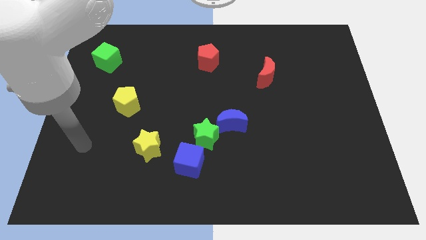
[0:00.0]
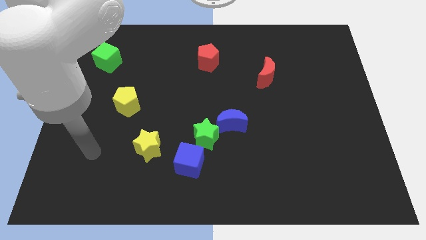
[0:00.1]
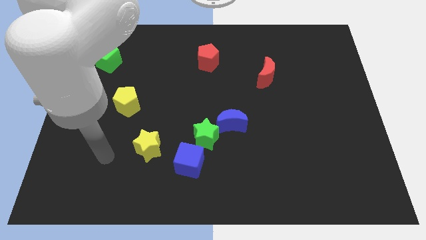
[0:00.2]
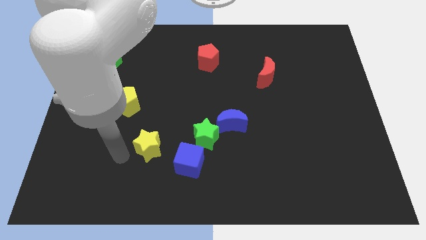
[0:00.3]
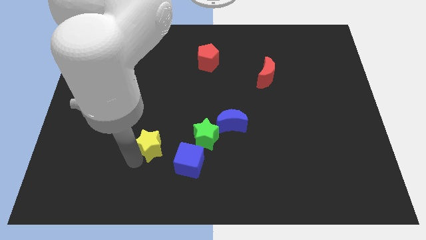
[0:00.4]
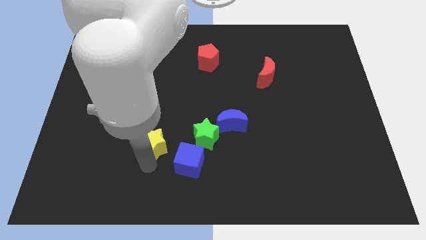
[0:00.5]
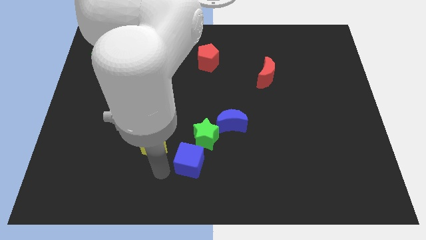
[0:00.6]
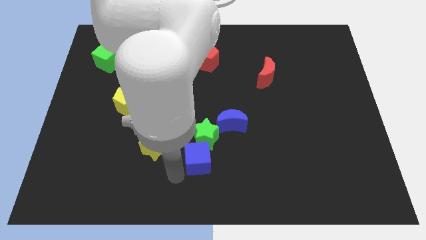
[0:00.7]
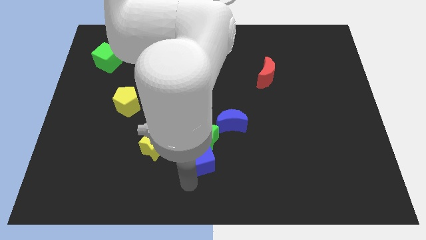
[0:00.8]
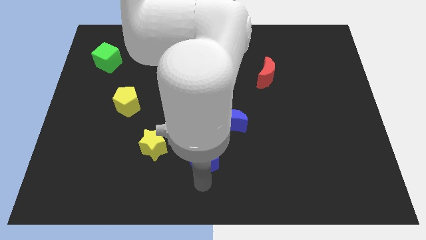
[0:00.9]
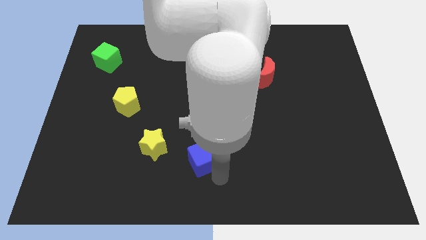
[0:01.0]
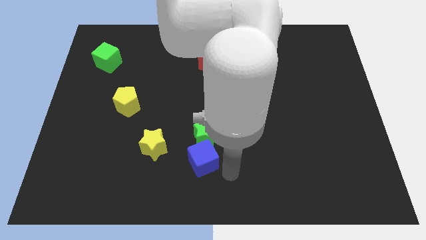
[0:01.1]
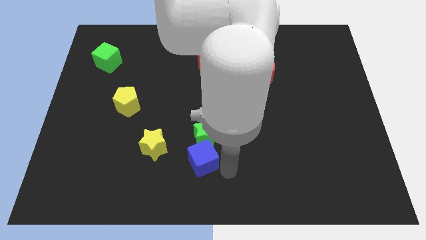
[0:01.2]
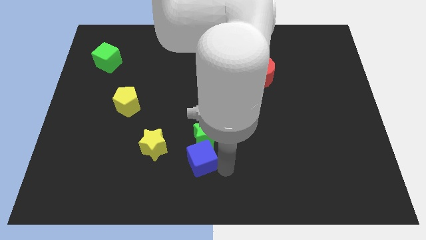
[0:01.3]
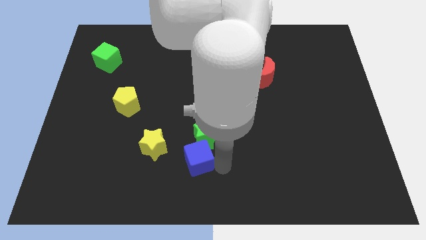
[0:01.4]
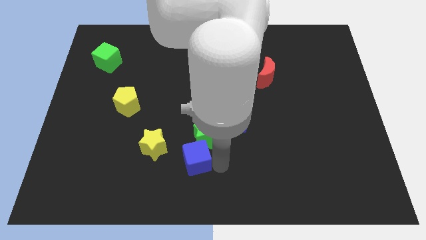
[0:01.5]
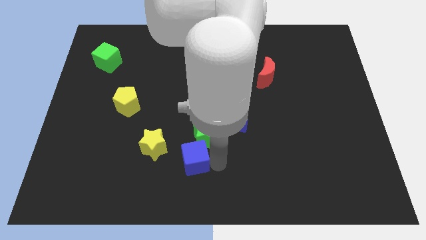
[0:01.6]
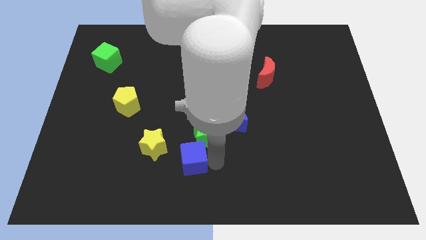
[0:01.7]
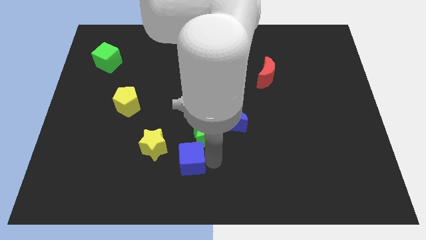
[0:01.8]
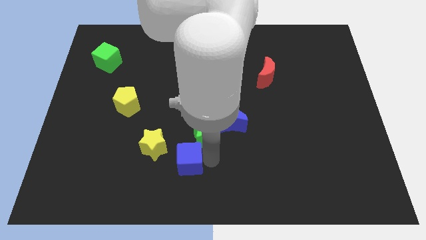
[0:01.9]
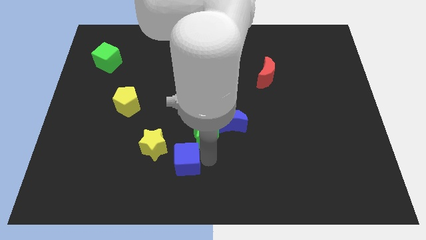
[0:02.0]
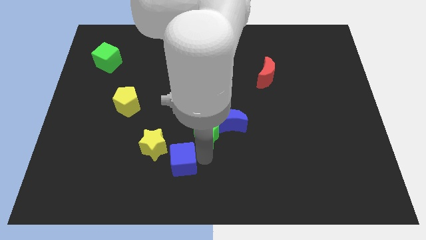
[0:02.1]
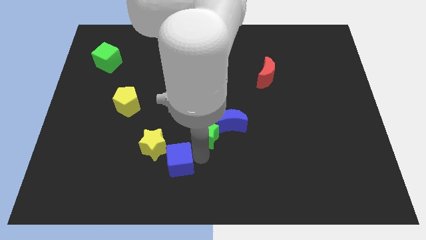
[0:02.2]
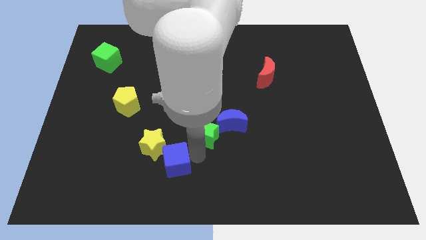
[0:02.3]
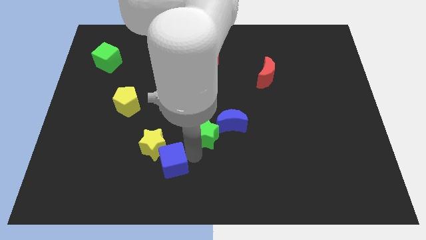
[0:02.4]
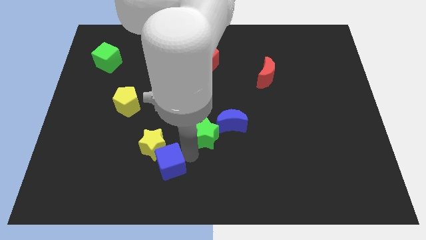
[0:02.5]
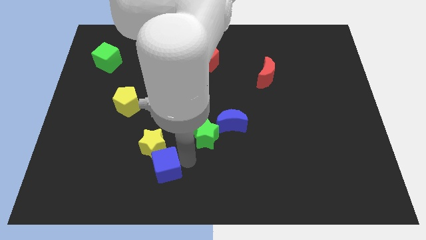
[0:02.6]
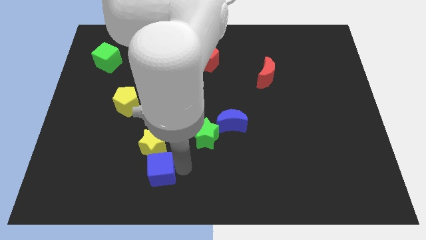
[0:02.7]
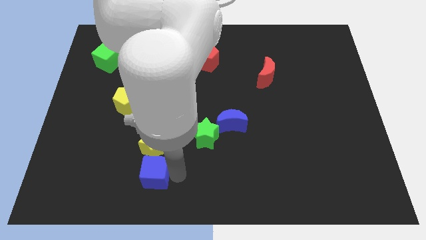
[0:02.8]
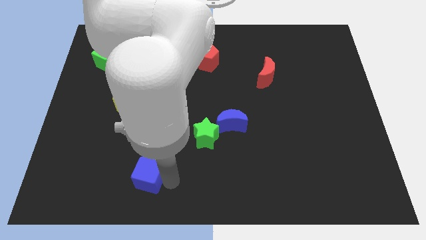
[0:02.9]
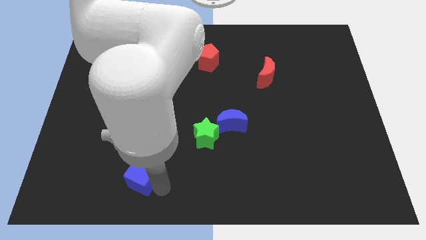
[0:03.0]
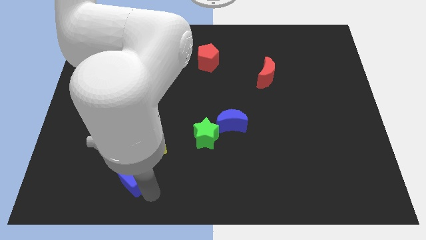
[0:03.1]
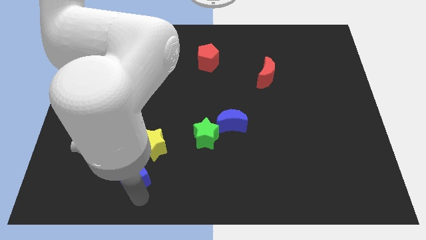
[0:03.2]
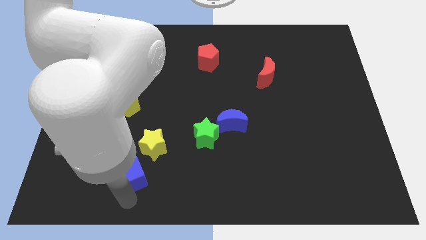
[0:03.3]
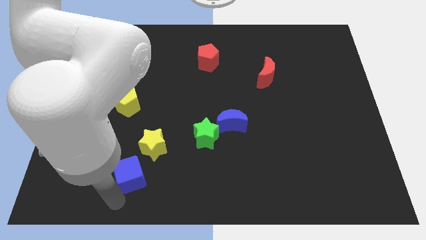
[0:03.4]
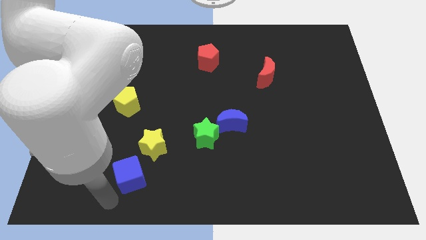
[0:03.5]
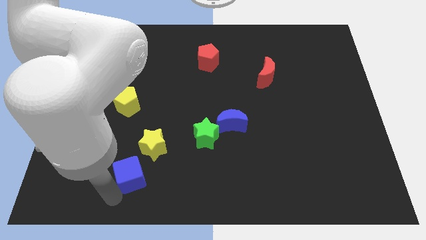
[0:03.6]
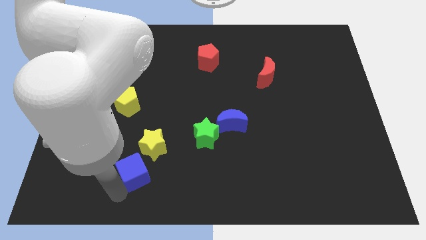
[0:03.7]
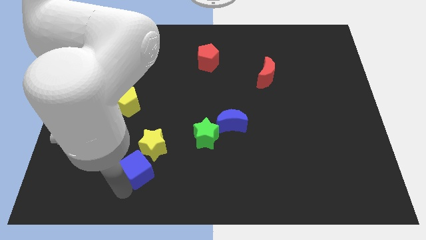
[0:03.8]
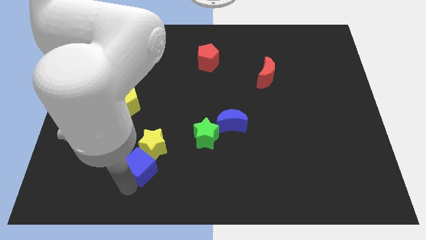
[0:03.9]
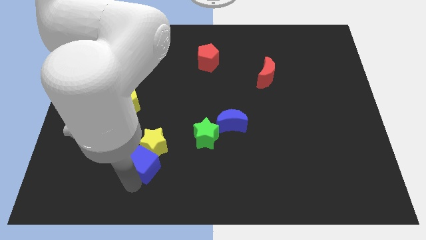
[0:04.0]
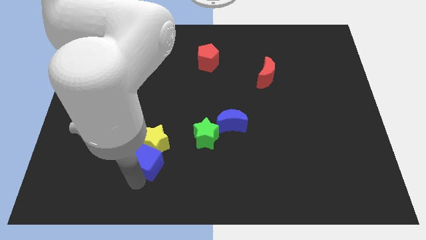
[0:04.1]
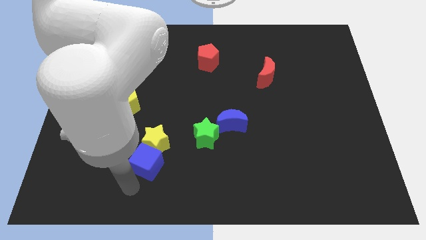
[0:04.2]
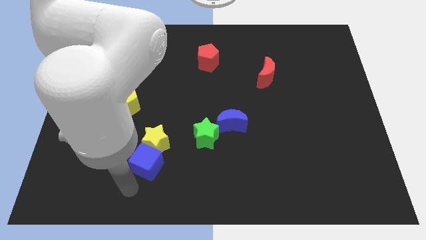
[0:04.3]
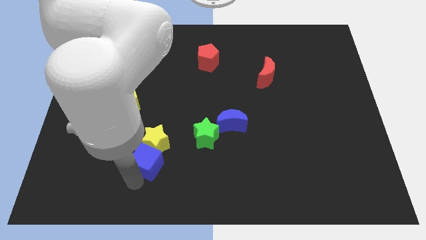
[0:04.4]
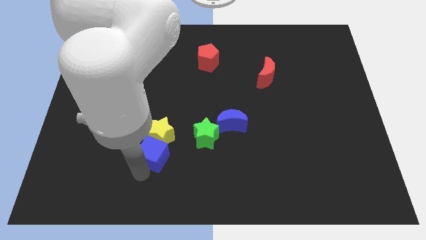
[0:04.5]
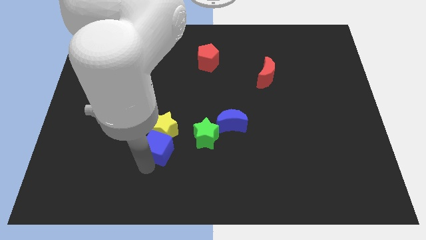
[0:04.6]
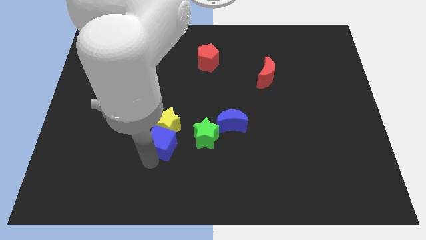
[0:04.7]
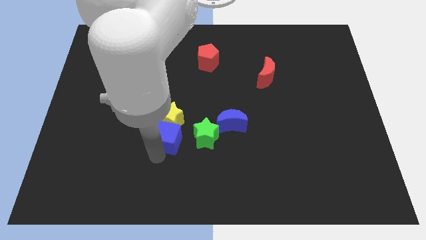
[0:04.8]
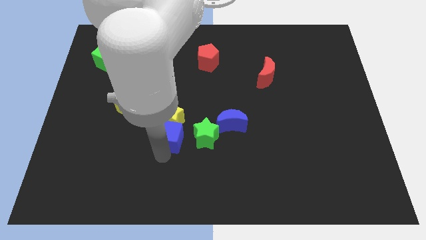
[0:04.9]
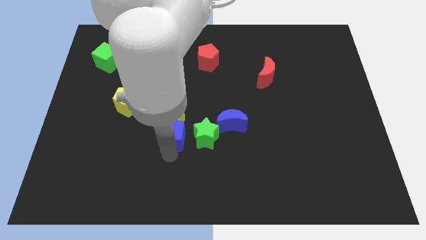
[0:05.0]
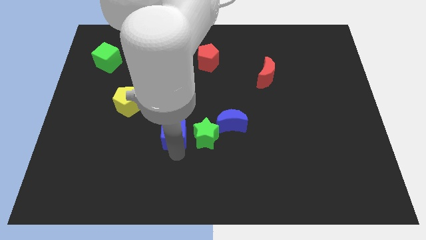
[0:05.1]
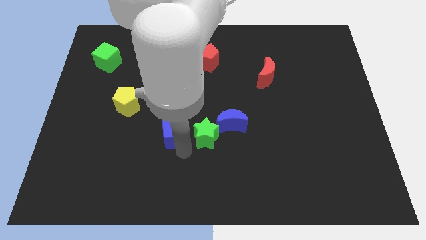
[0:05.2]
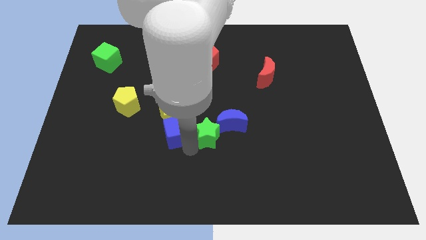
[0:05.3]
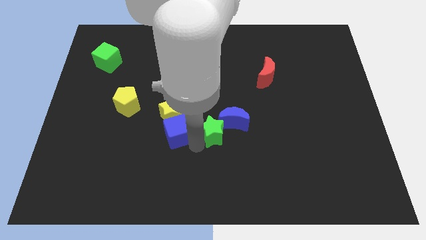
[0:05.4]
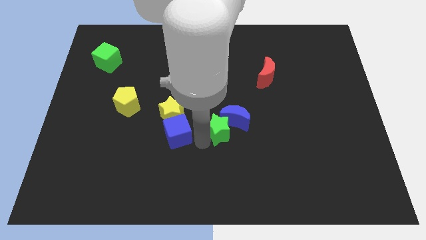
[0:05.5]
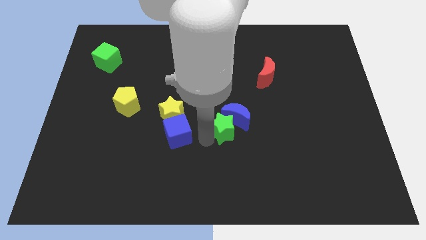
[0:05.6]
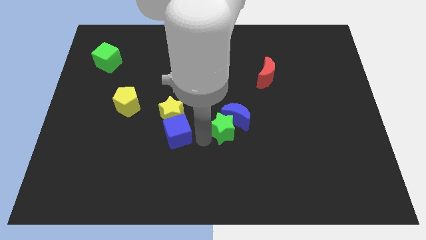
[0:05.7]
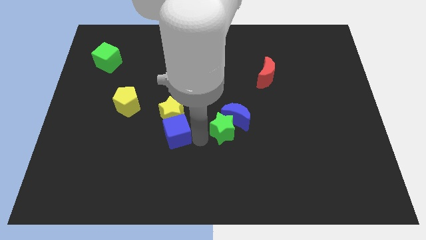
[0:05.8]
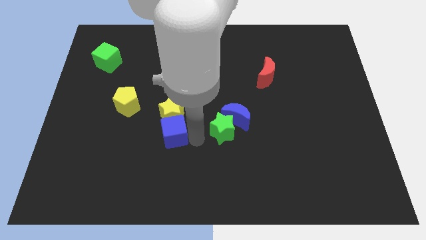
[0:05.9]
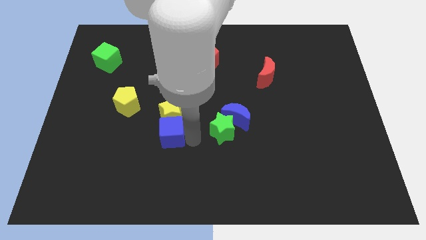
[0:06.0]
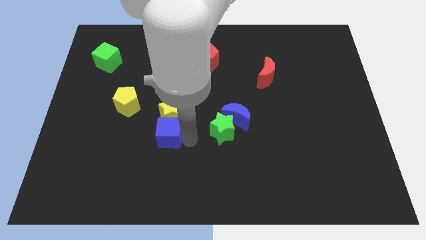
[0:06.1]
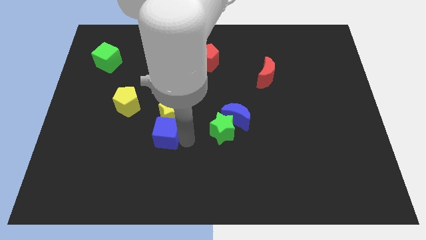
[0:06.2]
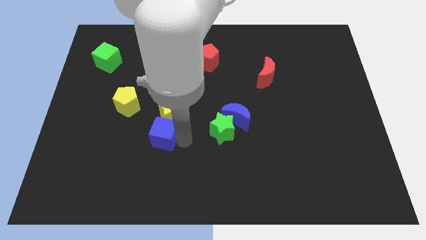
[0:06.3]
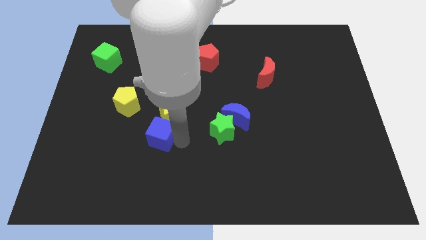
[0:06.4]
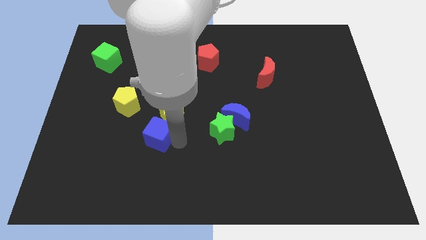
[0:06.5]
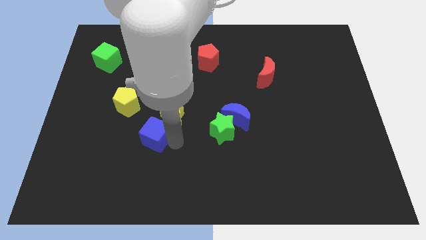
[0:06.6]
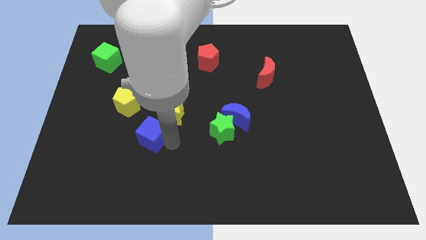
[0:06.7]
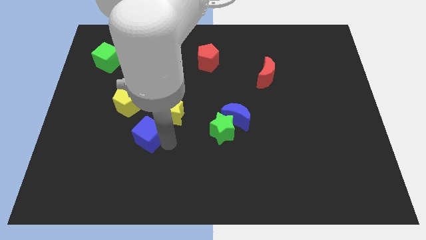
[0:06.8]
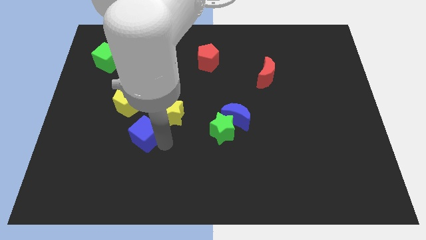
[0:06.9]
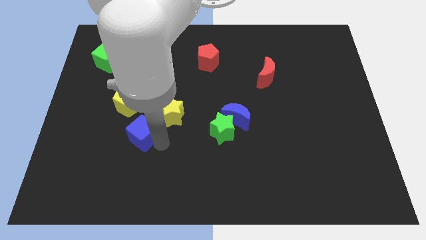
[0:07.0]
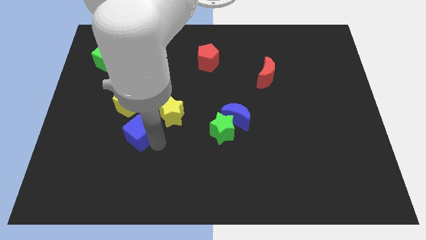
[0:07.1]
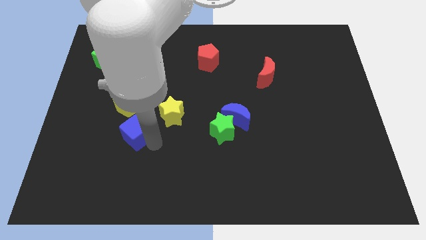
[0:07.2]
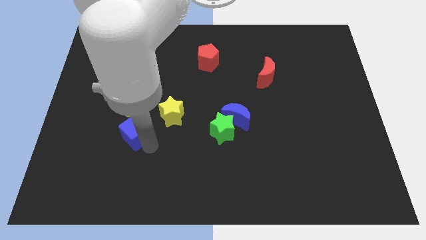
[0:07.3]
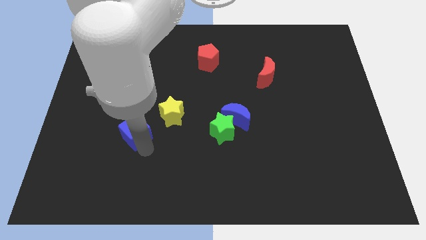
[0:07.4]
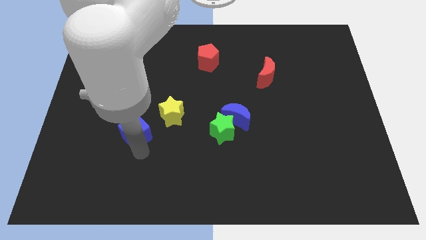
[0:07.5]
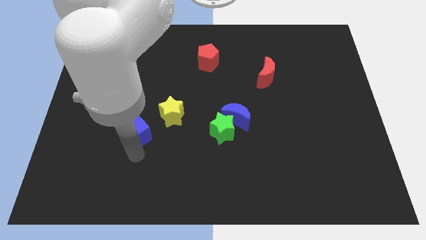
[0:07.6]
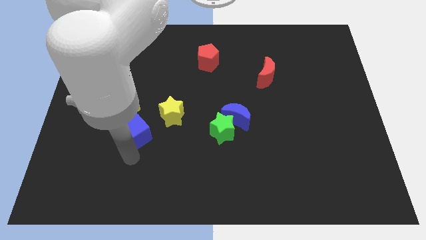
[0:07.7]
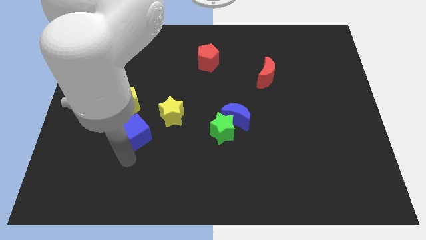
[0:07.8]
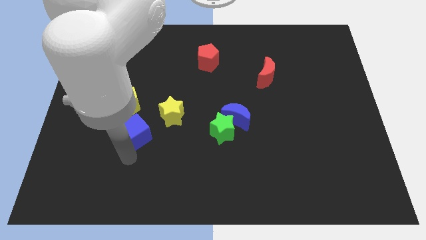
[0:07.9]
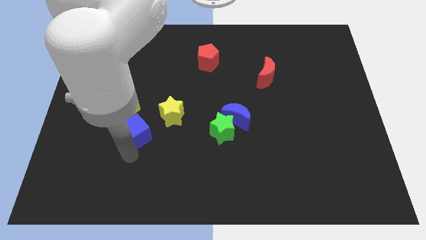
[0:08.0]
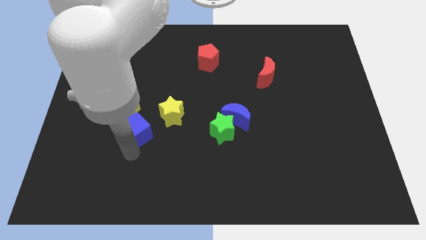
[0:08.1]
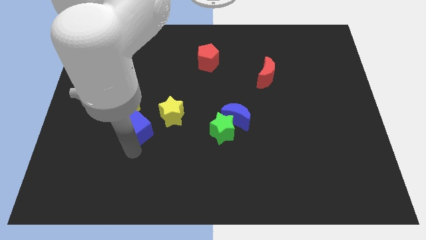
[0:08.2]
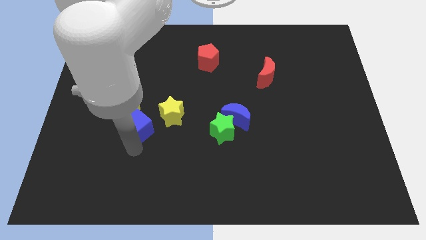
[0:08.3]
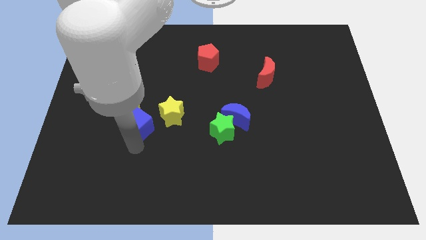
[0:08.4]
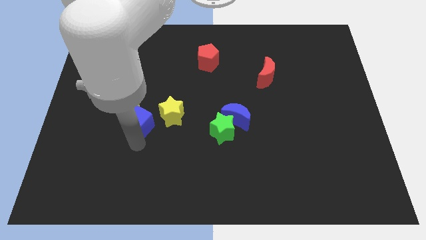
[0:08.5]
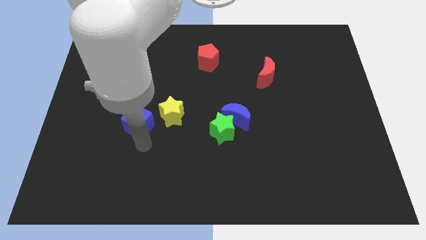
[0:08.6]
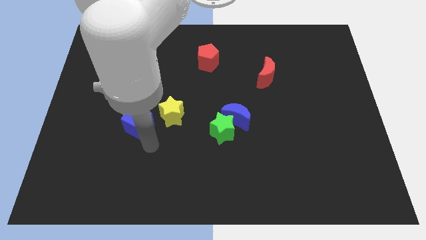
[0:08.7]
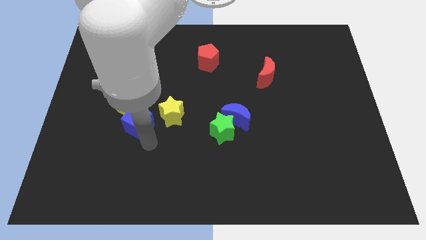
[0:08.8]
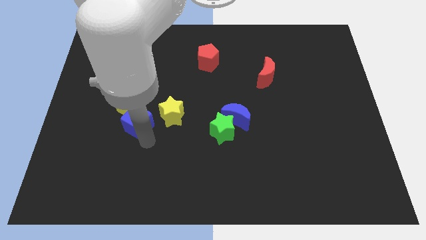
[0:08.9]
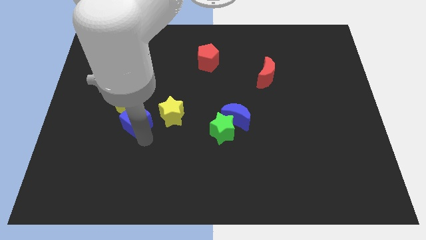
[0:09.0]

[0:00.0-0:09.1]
push the blue cube towards the yellow pentagon
